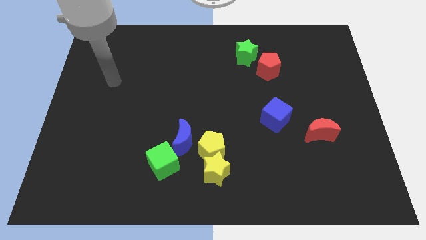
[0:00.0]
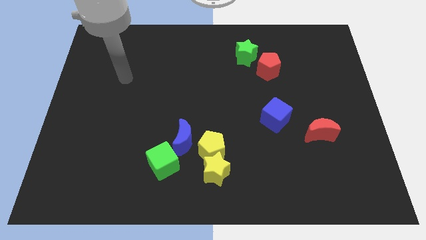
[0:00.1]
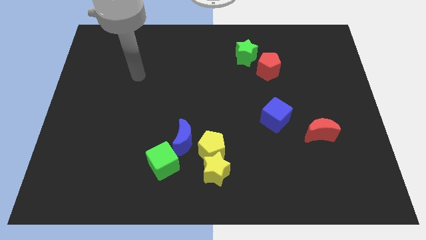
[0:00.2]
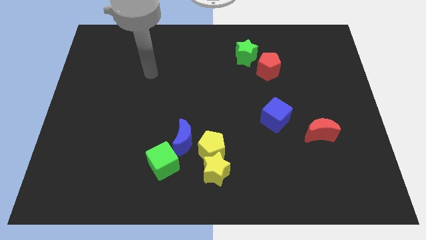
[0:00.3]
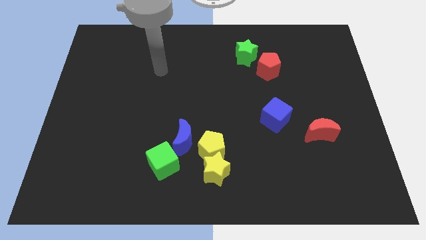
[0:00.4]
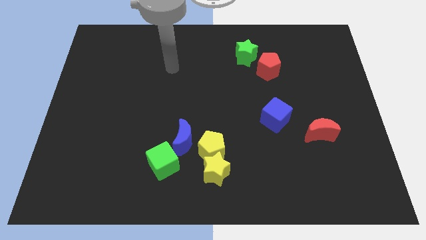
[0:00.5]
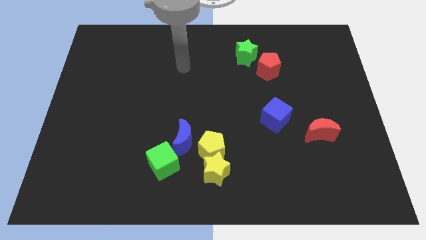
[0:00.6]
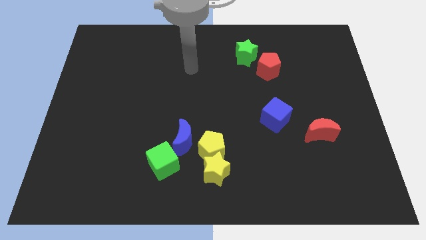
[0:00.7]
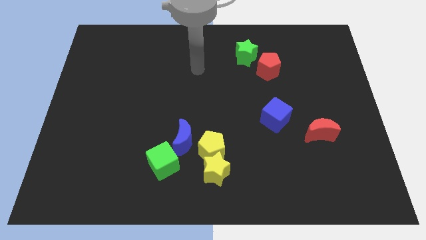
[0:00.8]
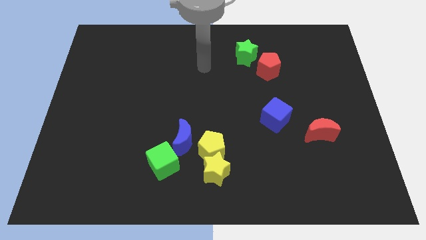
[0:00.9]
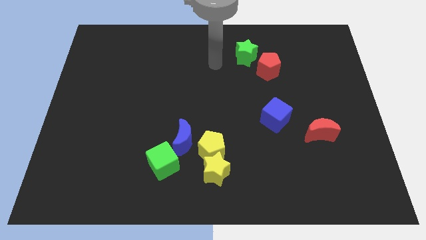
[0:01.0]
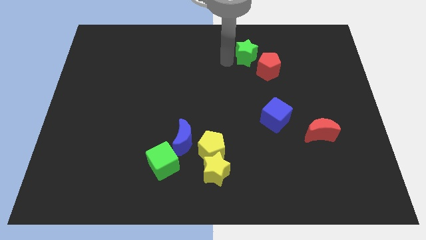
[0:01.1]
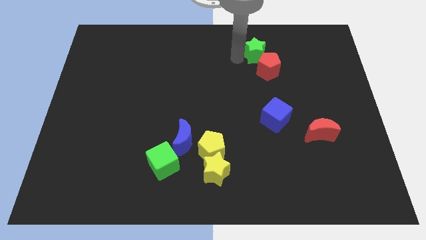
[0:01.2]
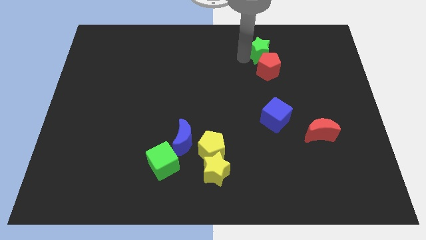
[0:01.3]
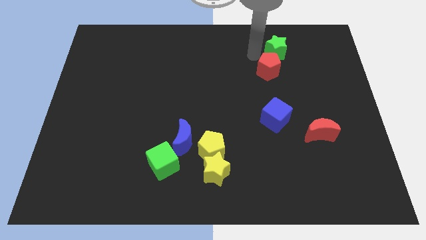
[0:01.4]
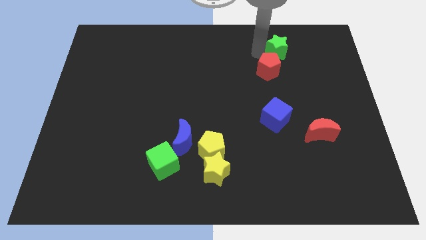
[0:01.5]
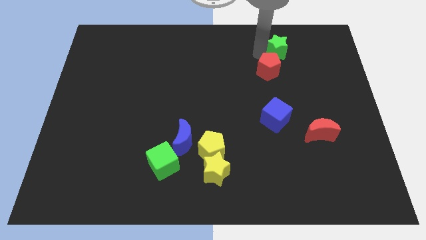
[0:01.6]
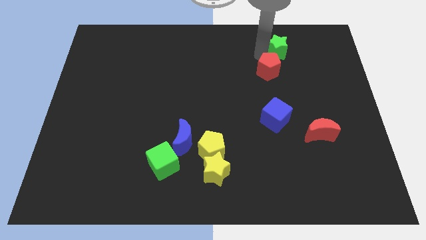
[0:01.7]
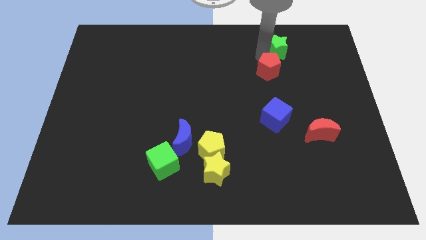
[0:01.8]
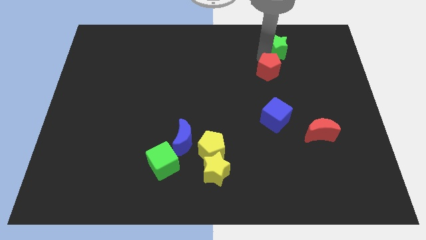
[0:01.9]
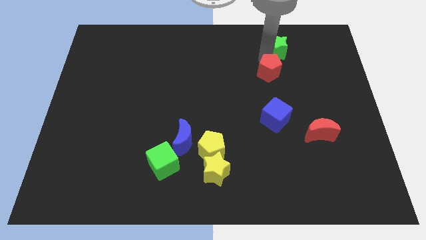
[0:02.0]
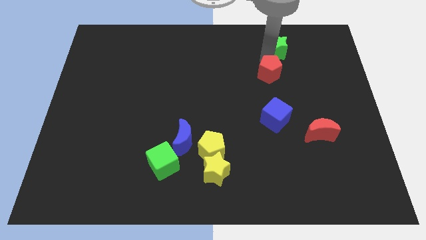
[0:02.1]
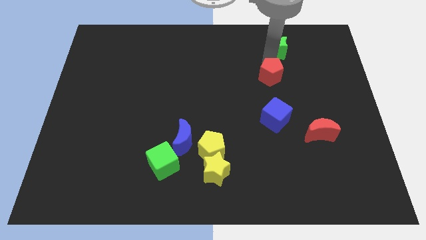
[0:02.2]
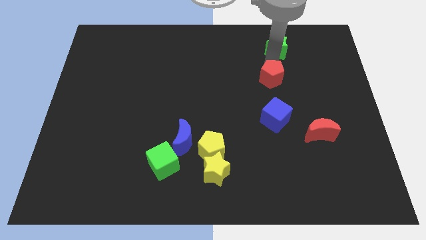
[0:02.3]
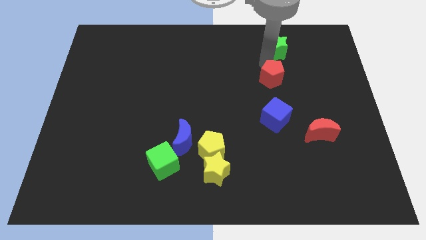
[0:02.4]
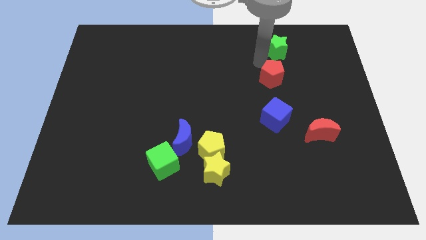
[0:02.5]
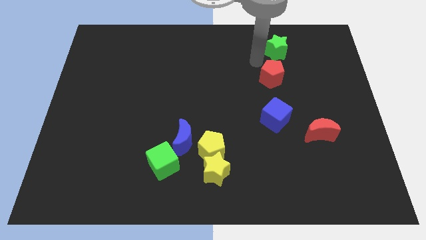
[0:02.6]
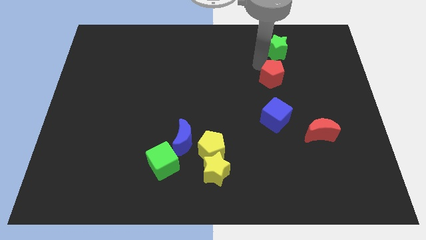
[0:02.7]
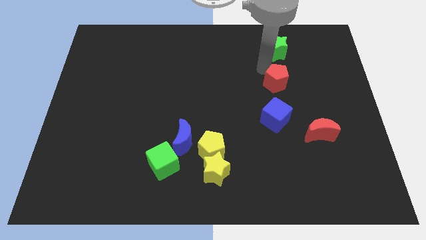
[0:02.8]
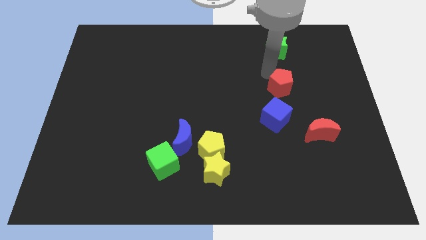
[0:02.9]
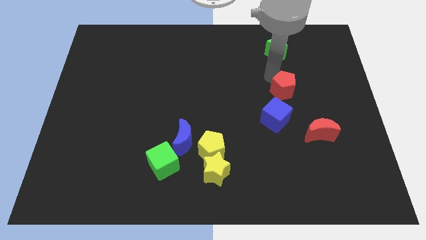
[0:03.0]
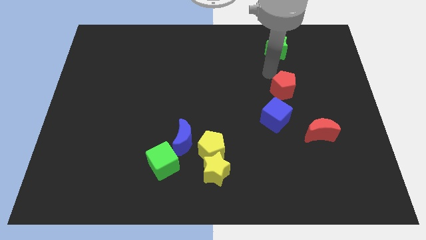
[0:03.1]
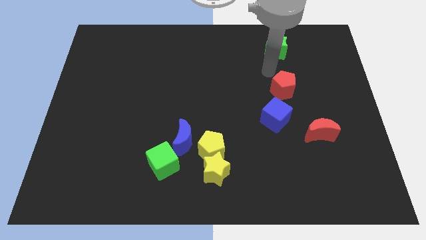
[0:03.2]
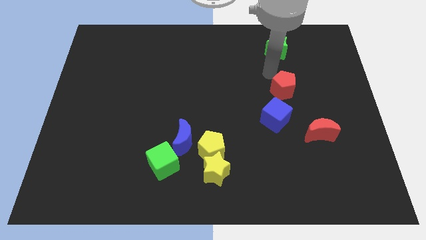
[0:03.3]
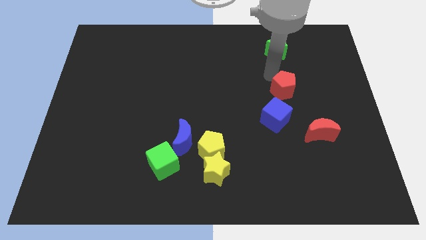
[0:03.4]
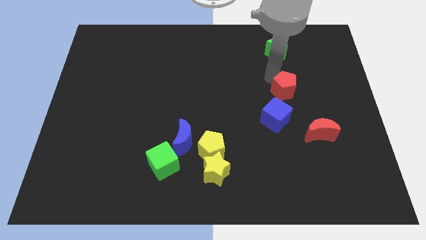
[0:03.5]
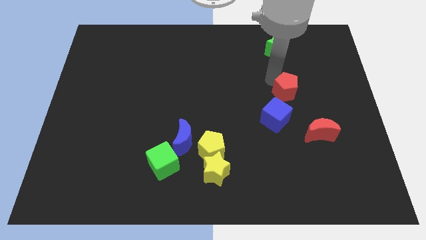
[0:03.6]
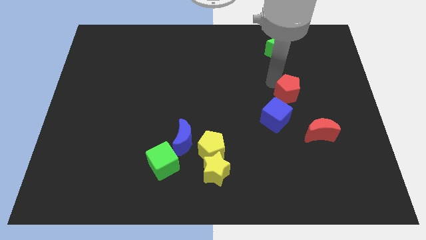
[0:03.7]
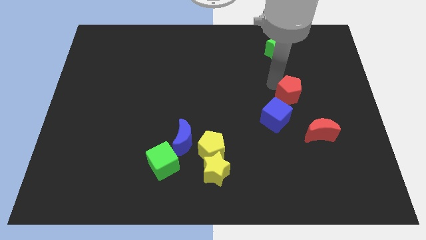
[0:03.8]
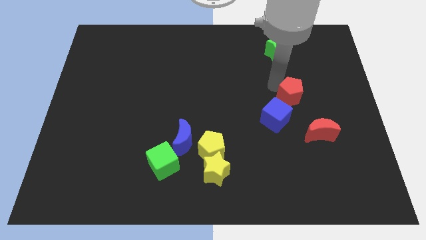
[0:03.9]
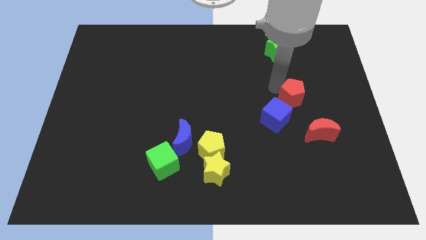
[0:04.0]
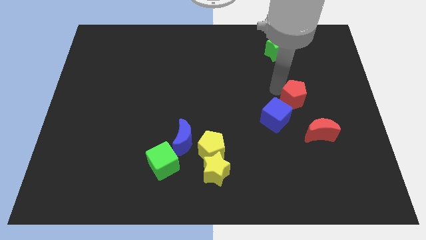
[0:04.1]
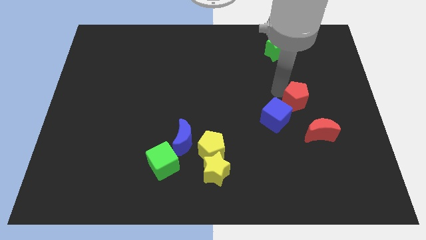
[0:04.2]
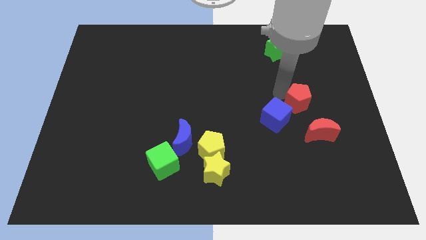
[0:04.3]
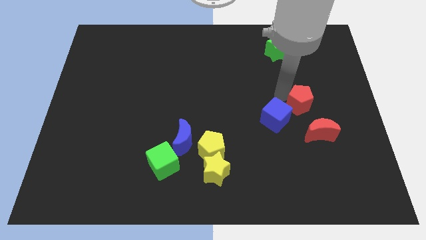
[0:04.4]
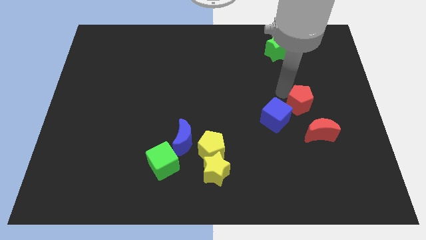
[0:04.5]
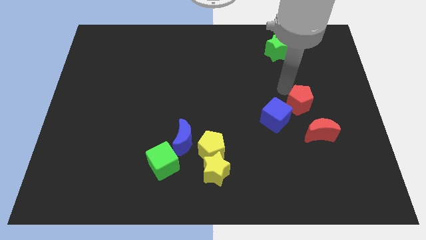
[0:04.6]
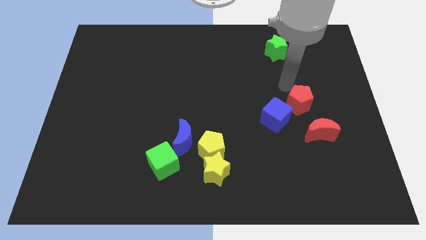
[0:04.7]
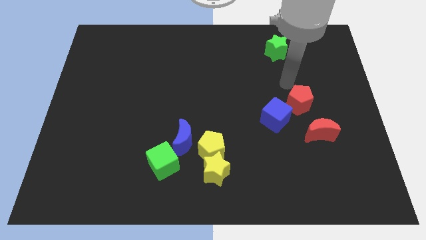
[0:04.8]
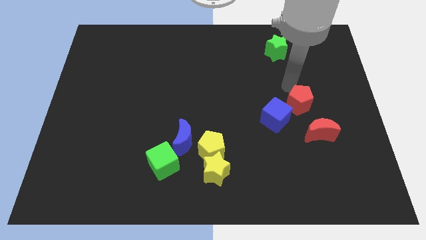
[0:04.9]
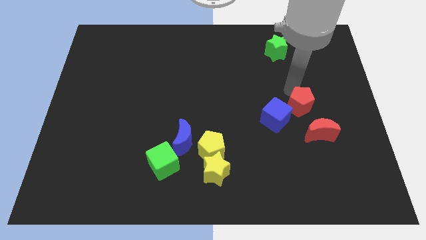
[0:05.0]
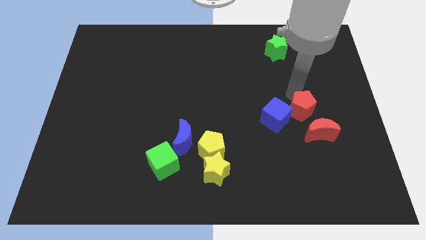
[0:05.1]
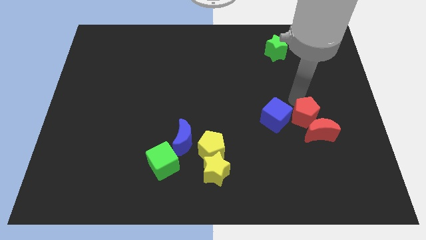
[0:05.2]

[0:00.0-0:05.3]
put the red pentagon towards the red moon

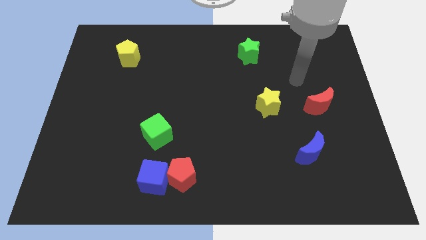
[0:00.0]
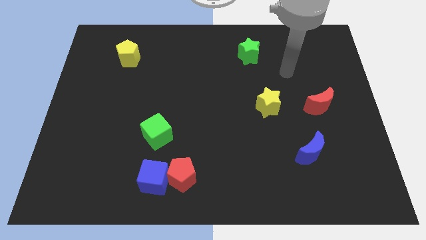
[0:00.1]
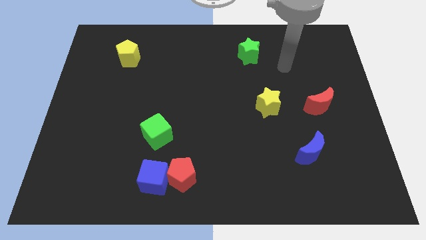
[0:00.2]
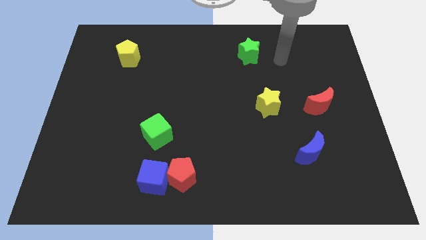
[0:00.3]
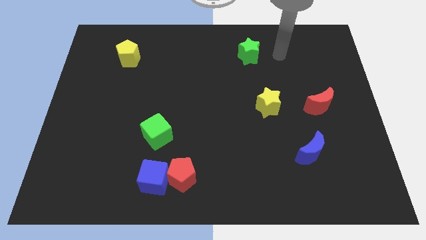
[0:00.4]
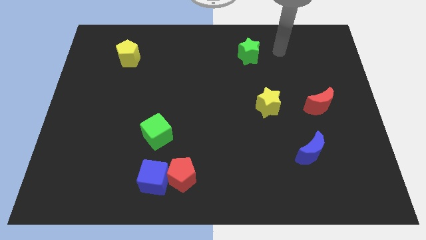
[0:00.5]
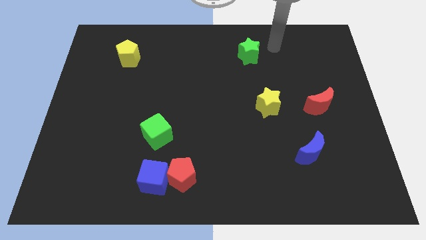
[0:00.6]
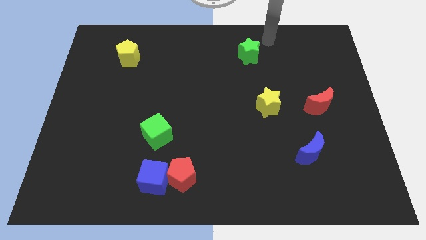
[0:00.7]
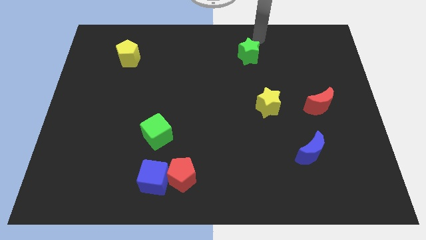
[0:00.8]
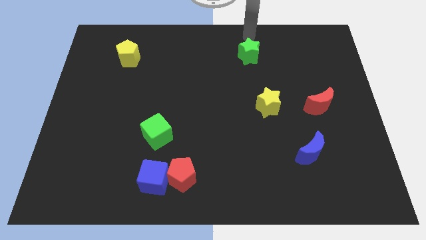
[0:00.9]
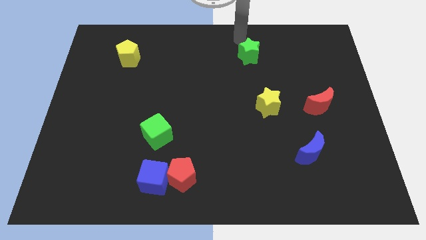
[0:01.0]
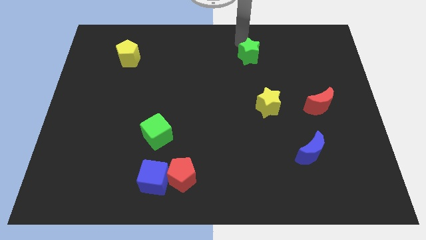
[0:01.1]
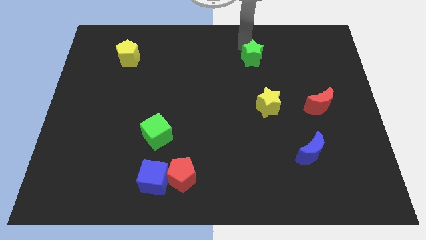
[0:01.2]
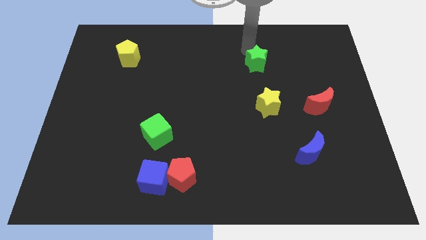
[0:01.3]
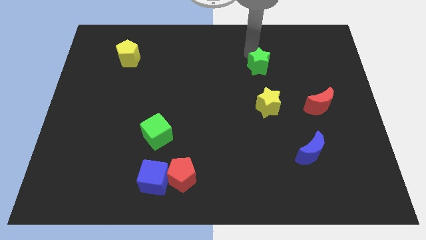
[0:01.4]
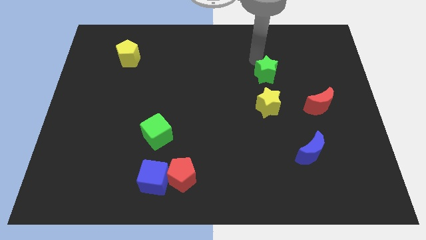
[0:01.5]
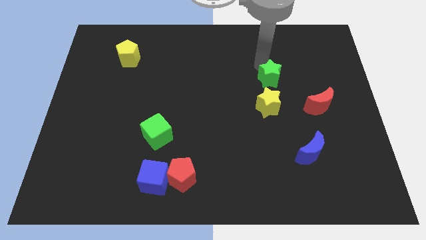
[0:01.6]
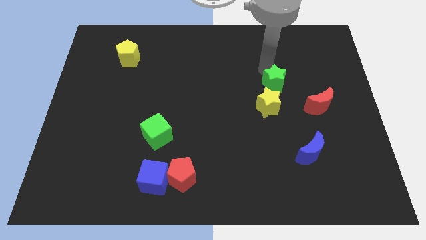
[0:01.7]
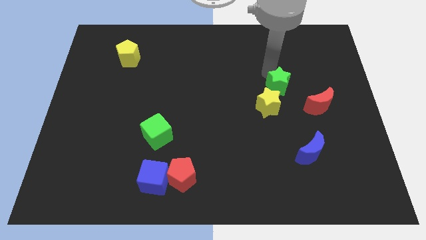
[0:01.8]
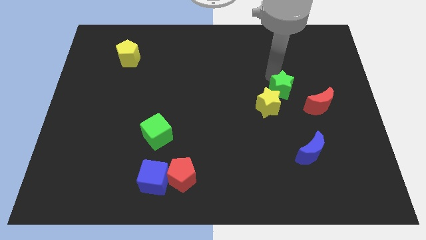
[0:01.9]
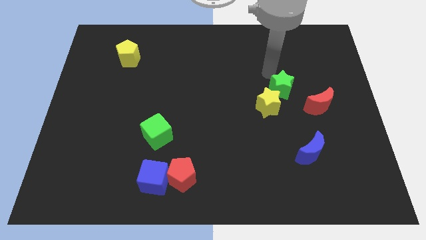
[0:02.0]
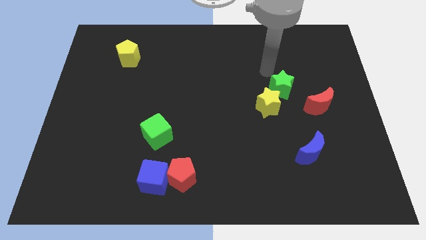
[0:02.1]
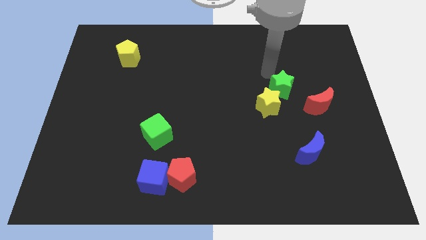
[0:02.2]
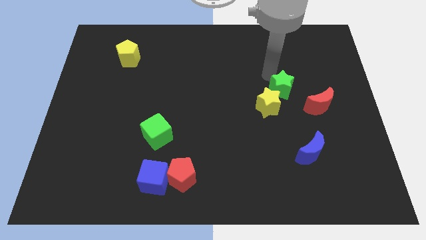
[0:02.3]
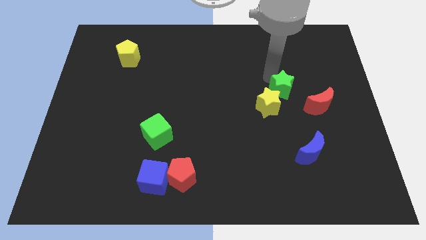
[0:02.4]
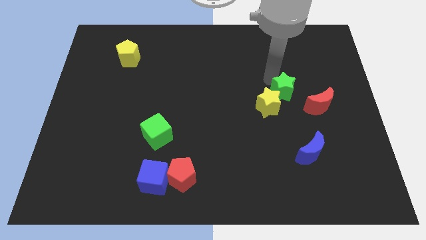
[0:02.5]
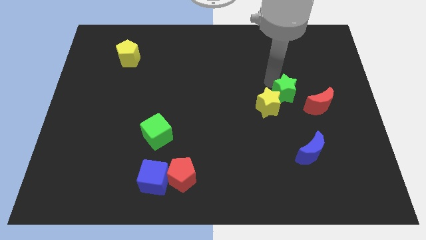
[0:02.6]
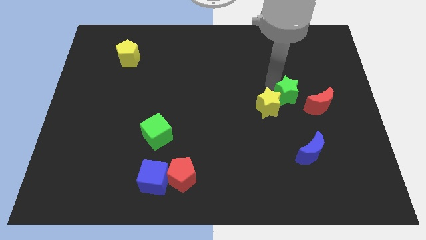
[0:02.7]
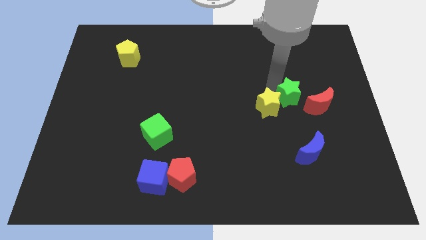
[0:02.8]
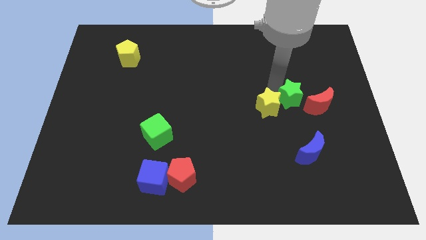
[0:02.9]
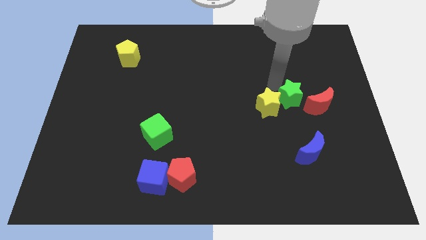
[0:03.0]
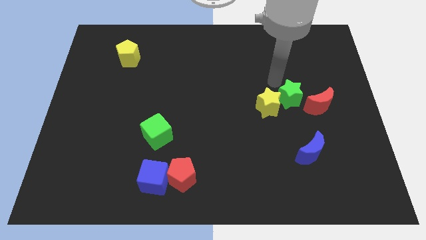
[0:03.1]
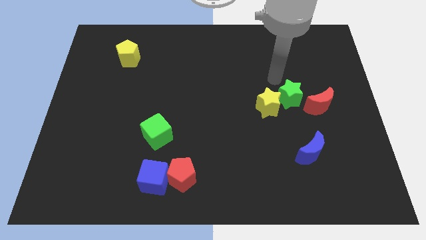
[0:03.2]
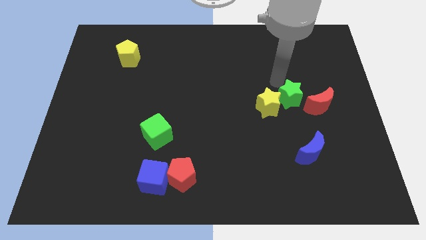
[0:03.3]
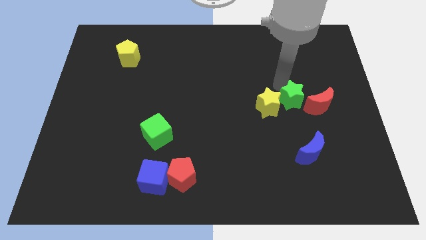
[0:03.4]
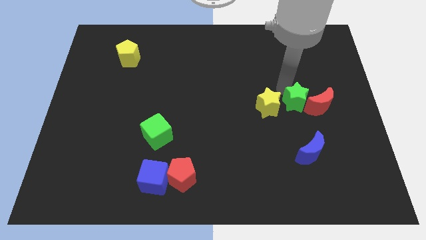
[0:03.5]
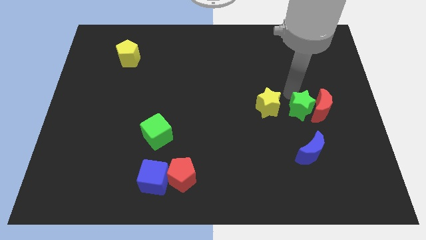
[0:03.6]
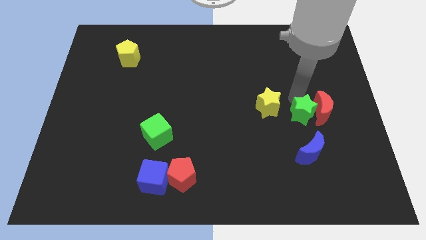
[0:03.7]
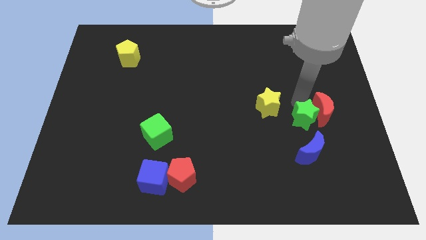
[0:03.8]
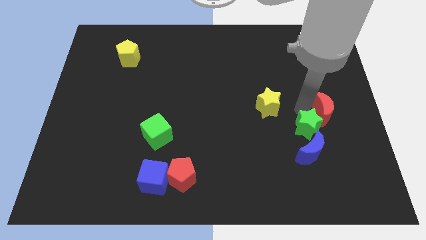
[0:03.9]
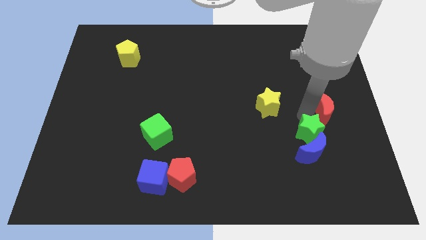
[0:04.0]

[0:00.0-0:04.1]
push the green star towards the blue moon
